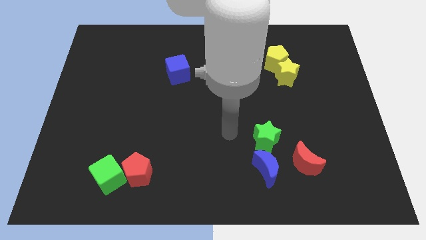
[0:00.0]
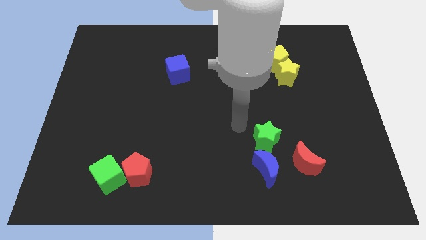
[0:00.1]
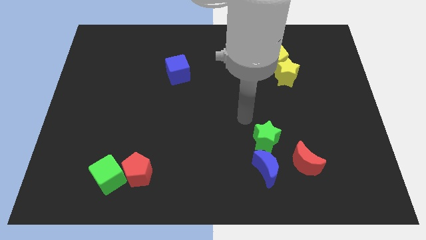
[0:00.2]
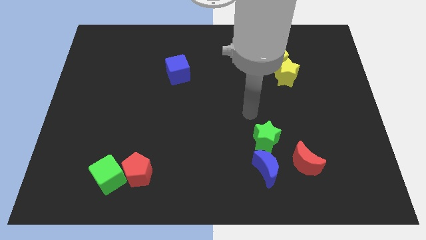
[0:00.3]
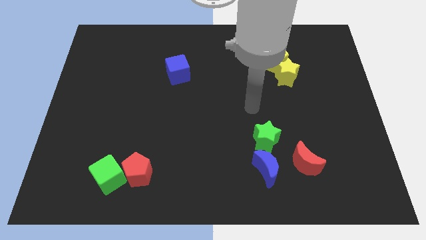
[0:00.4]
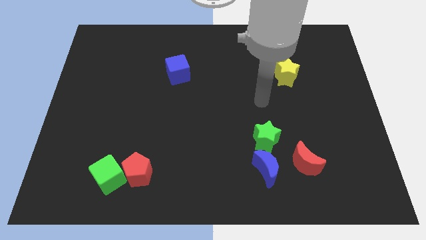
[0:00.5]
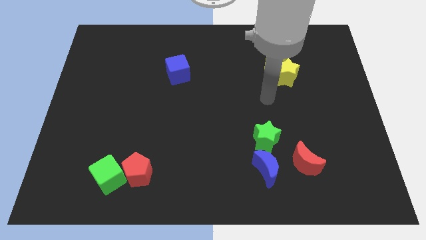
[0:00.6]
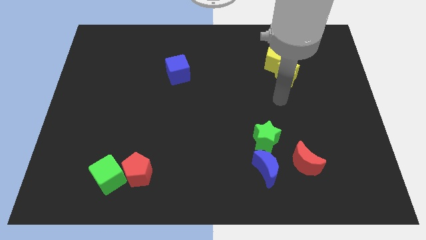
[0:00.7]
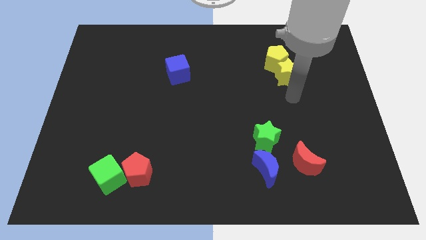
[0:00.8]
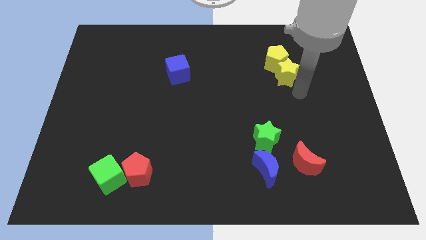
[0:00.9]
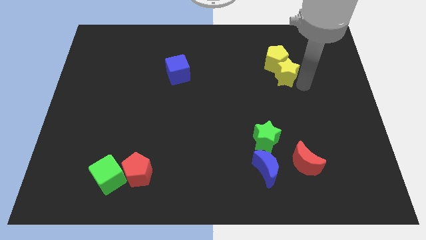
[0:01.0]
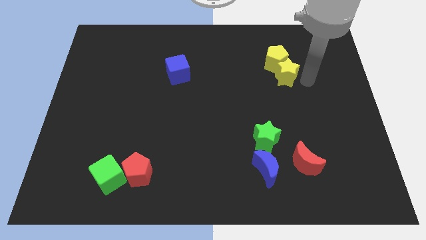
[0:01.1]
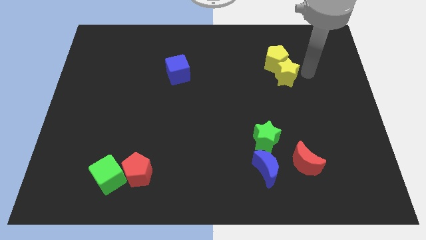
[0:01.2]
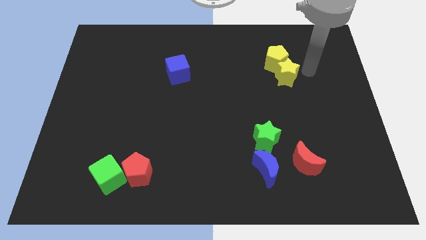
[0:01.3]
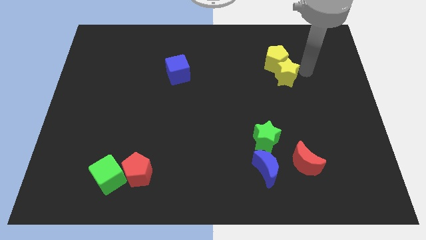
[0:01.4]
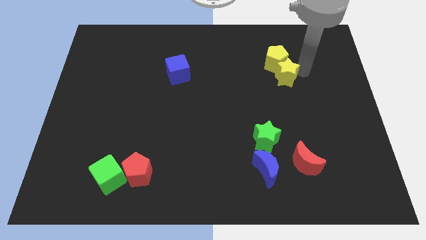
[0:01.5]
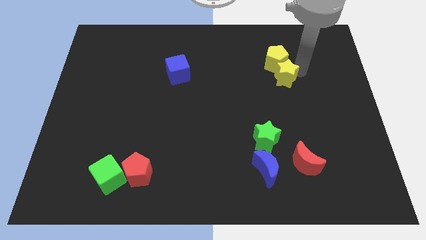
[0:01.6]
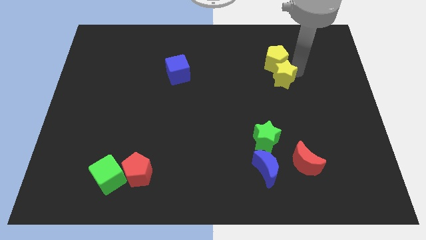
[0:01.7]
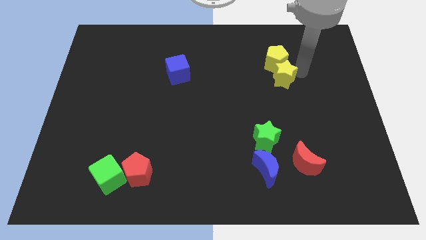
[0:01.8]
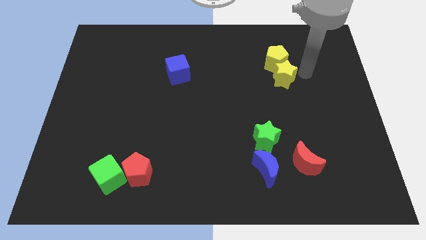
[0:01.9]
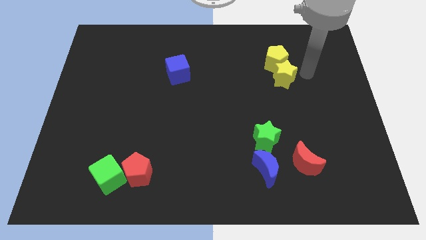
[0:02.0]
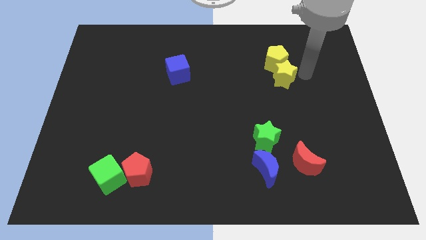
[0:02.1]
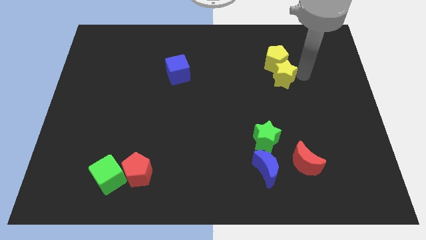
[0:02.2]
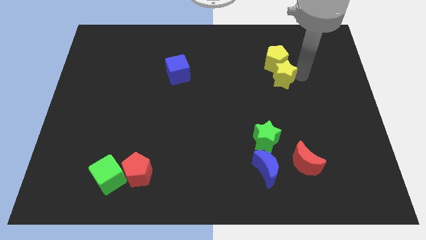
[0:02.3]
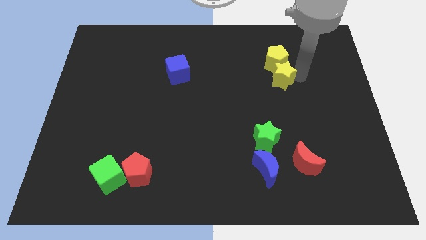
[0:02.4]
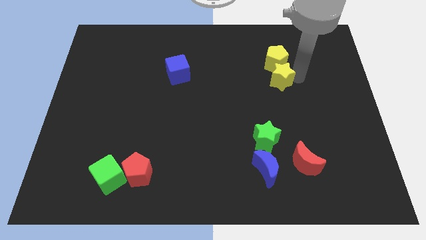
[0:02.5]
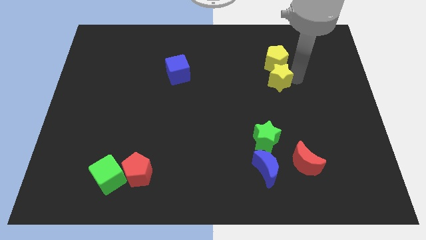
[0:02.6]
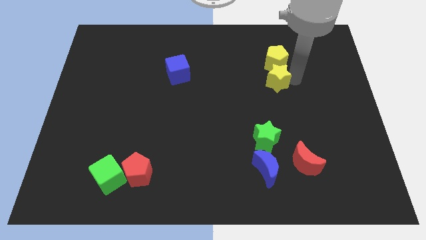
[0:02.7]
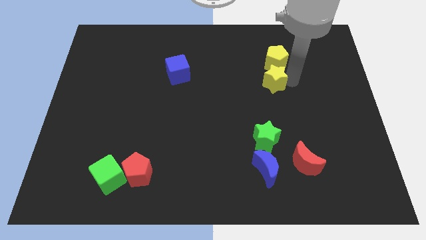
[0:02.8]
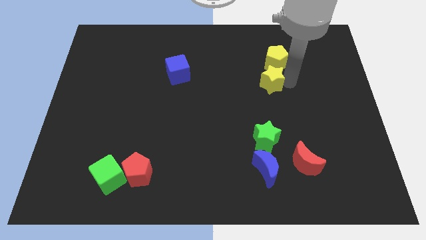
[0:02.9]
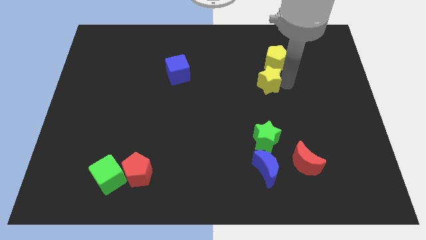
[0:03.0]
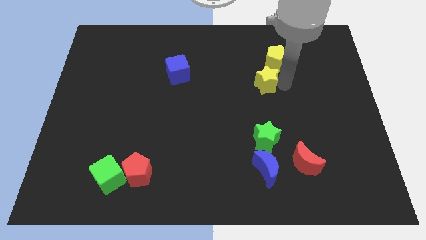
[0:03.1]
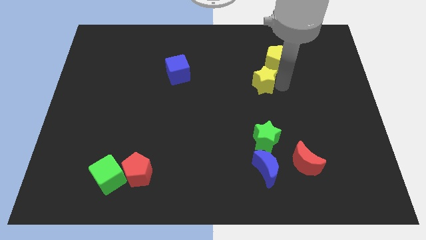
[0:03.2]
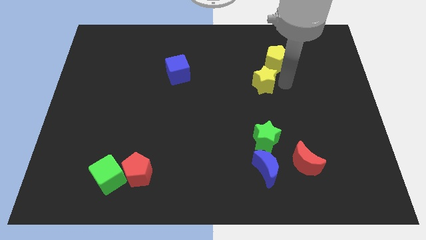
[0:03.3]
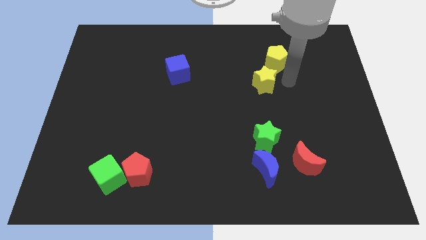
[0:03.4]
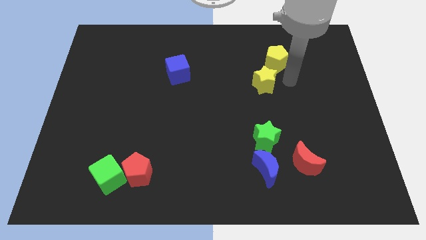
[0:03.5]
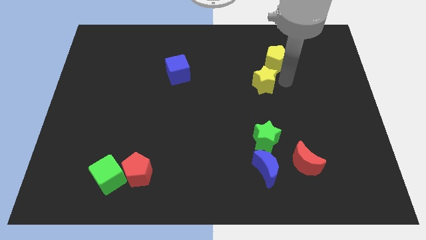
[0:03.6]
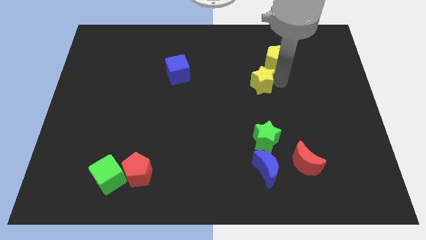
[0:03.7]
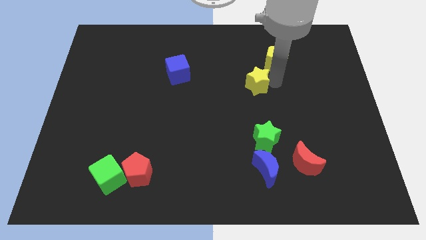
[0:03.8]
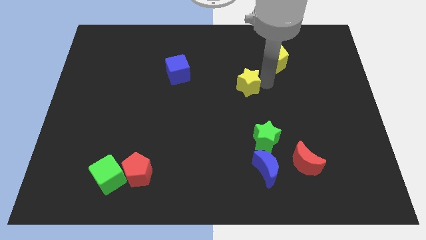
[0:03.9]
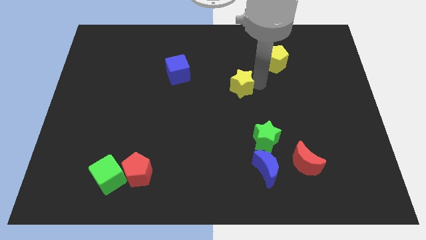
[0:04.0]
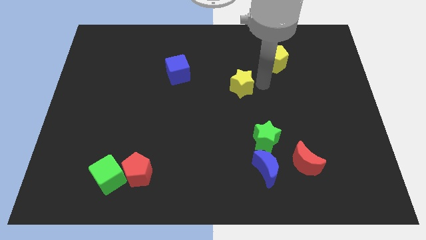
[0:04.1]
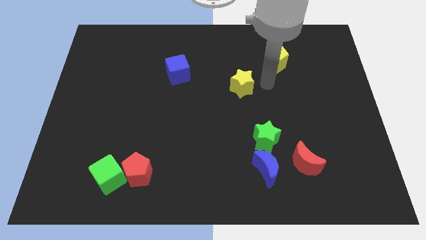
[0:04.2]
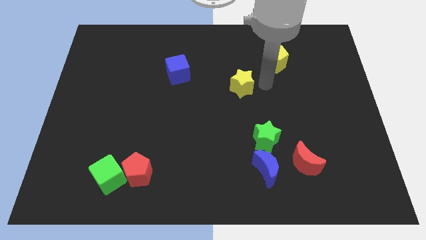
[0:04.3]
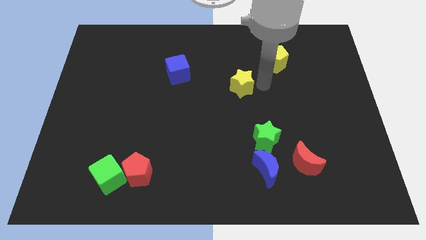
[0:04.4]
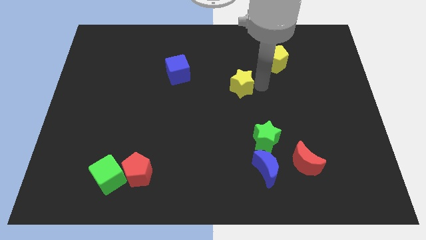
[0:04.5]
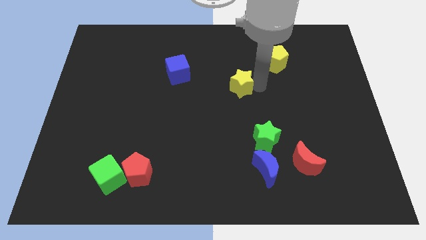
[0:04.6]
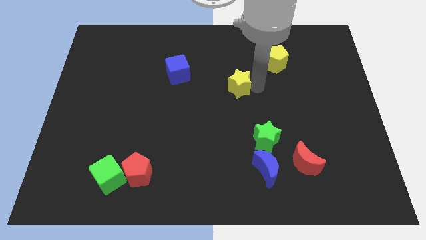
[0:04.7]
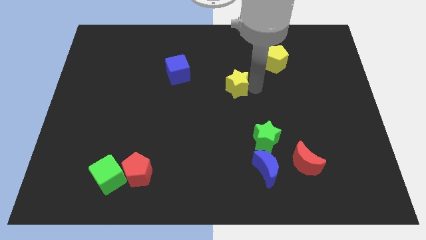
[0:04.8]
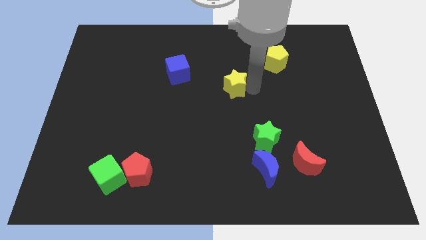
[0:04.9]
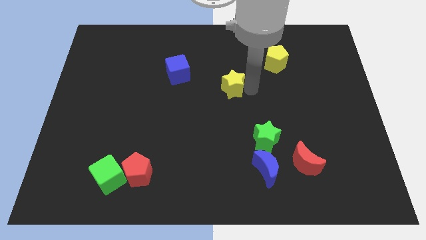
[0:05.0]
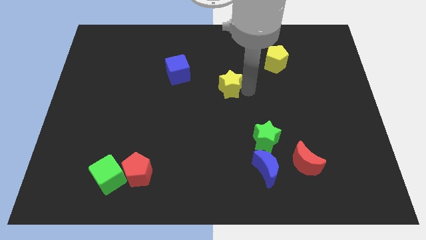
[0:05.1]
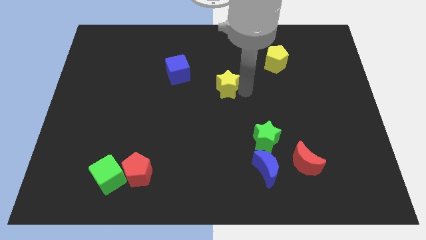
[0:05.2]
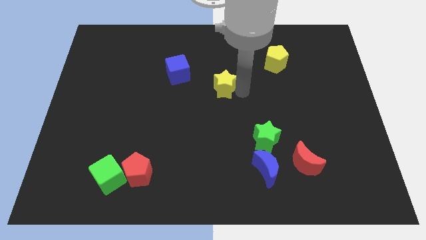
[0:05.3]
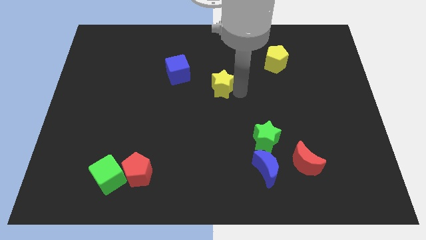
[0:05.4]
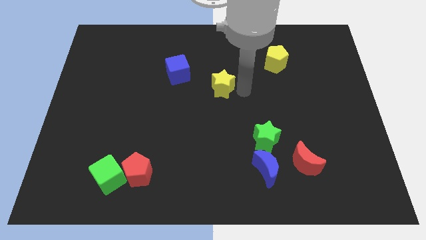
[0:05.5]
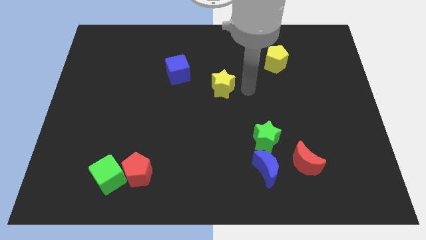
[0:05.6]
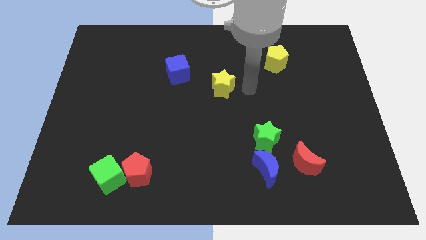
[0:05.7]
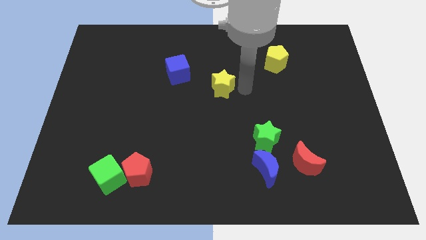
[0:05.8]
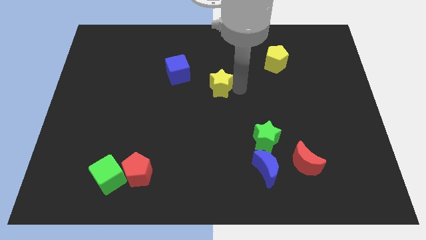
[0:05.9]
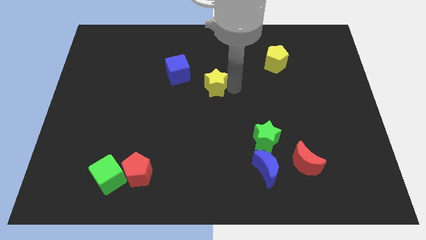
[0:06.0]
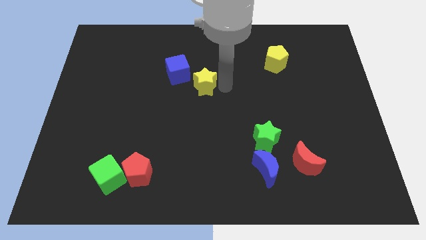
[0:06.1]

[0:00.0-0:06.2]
push the yellow star left

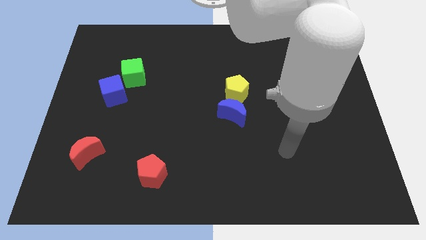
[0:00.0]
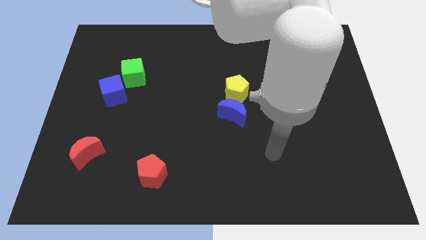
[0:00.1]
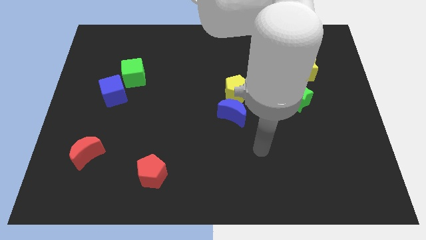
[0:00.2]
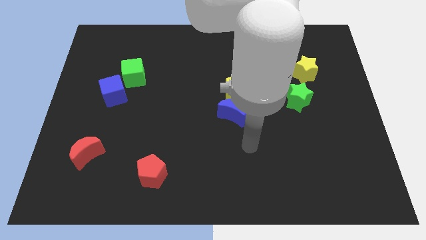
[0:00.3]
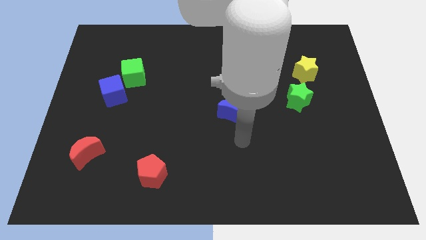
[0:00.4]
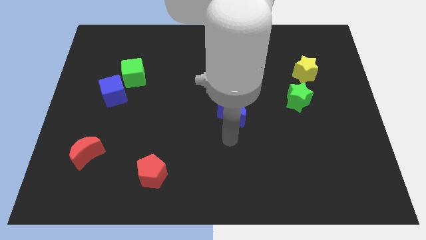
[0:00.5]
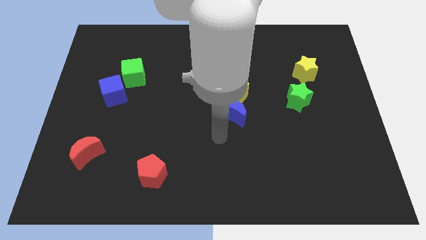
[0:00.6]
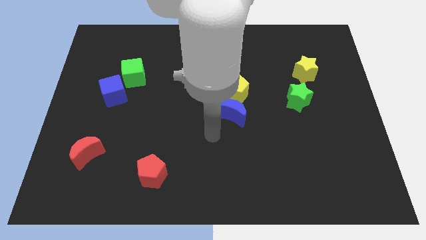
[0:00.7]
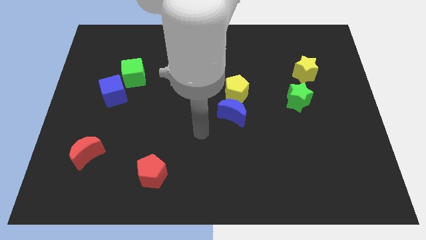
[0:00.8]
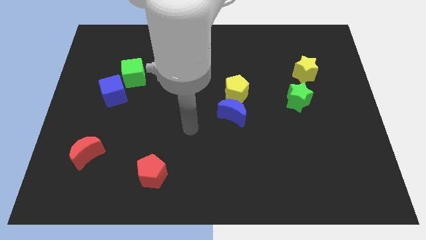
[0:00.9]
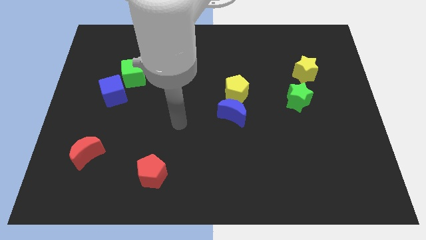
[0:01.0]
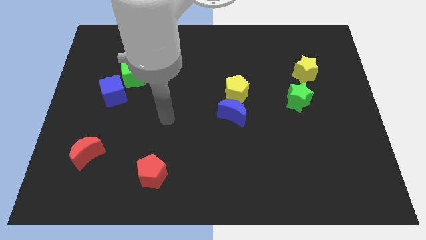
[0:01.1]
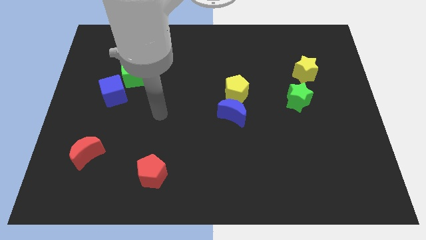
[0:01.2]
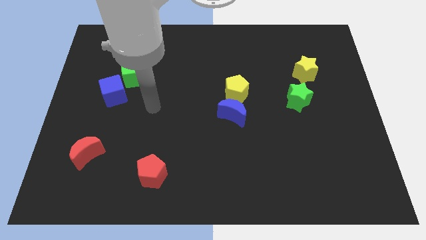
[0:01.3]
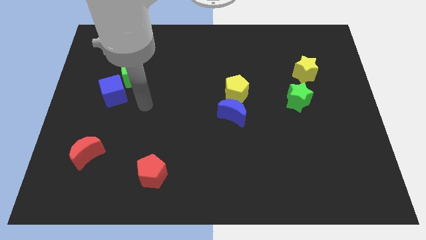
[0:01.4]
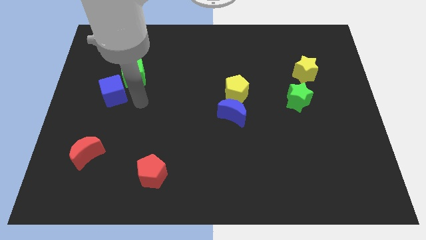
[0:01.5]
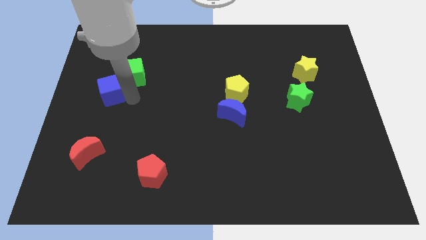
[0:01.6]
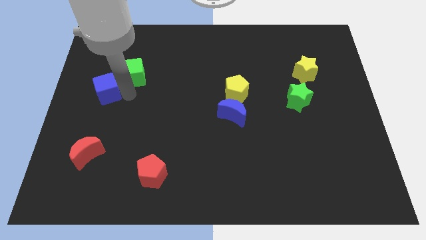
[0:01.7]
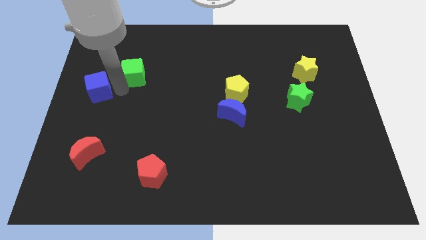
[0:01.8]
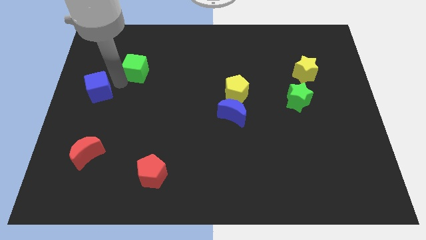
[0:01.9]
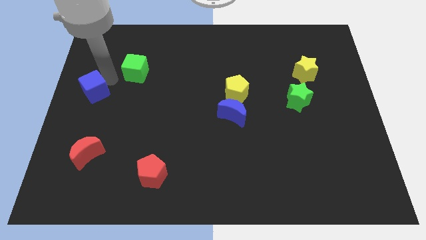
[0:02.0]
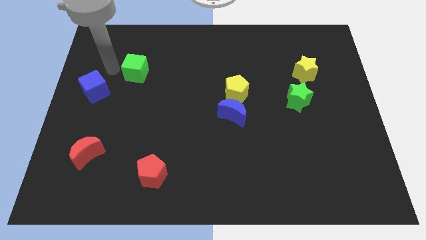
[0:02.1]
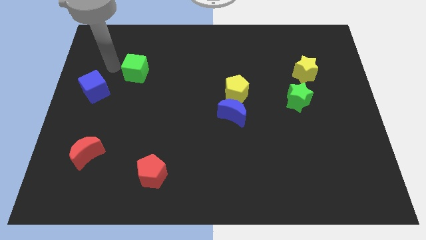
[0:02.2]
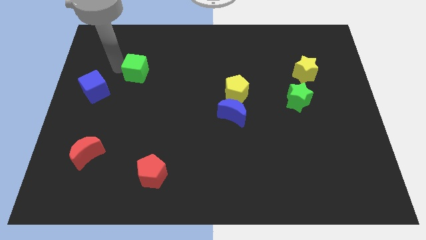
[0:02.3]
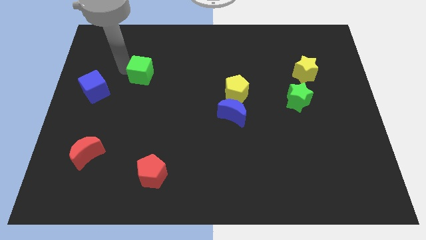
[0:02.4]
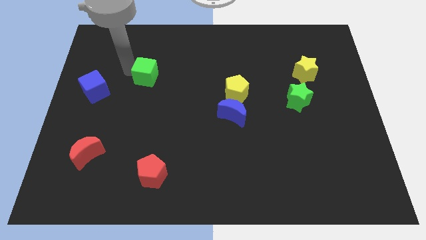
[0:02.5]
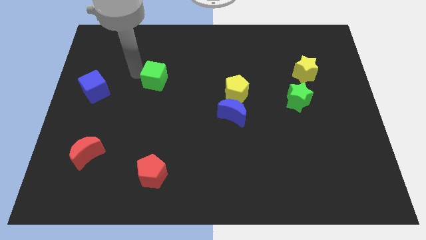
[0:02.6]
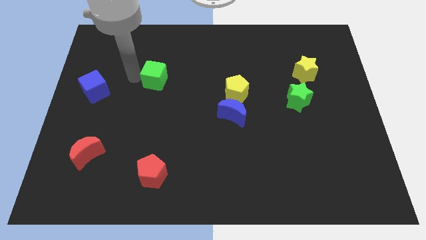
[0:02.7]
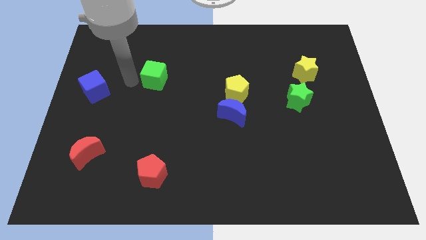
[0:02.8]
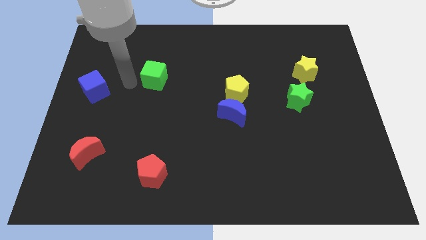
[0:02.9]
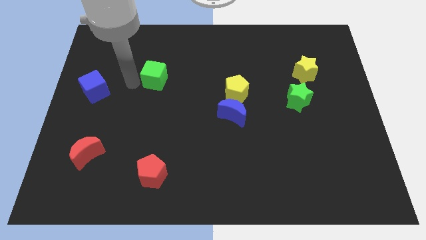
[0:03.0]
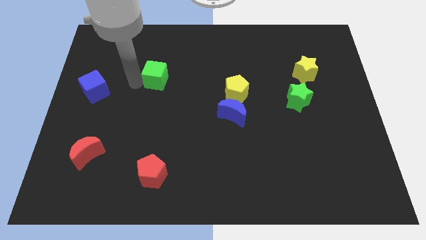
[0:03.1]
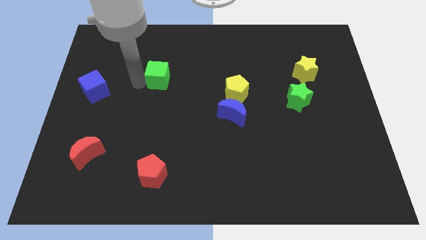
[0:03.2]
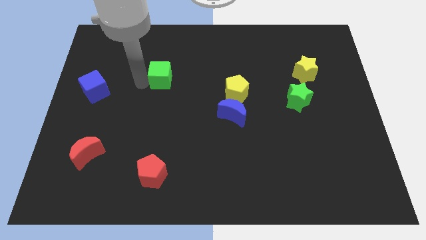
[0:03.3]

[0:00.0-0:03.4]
push the green cube to the right a little bit
